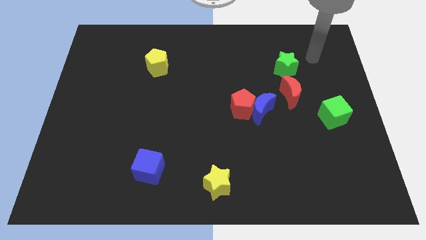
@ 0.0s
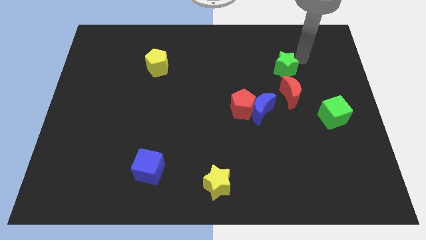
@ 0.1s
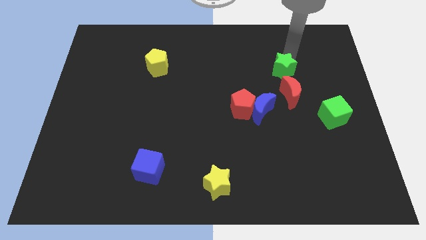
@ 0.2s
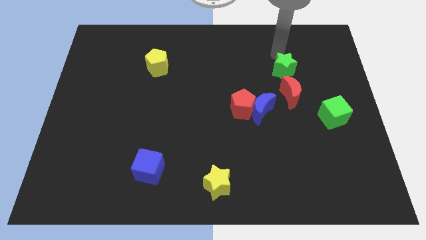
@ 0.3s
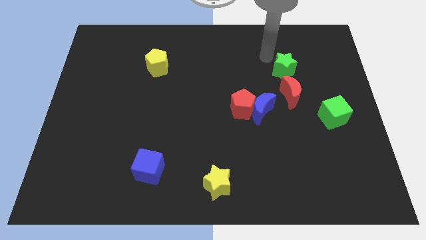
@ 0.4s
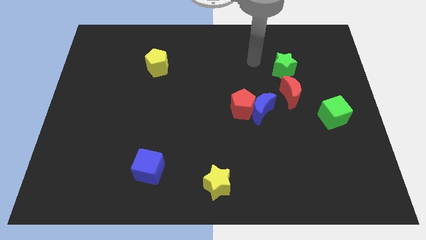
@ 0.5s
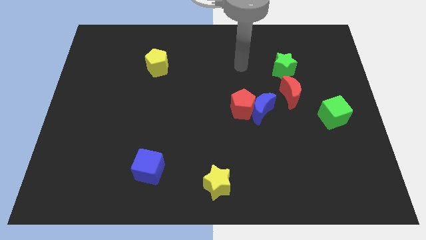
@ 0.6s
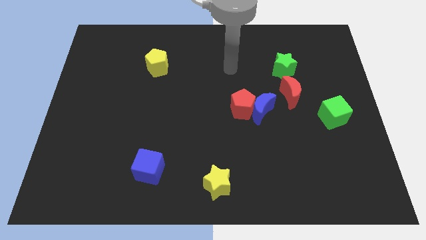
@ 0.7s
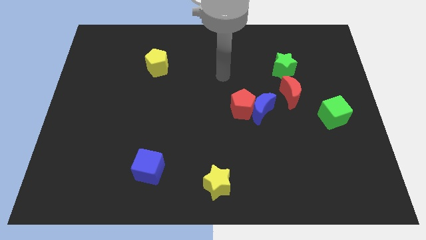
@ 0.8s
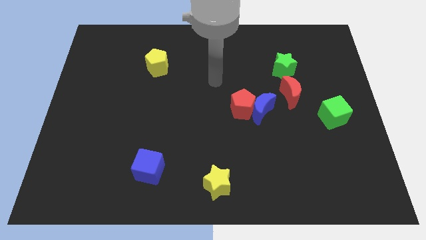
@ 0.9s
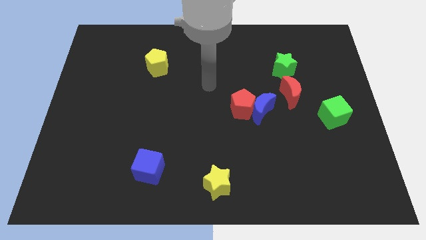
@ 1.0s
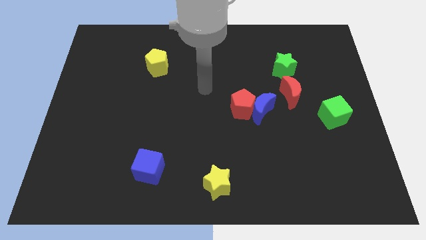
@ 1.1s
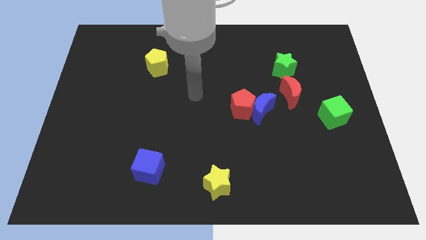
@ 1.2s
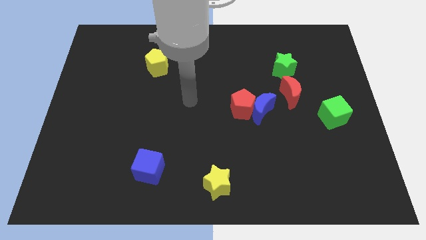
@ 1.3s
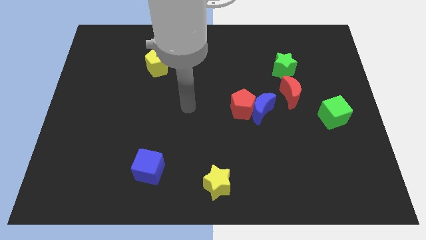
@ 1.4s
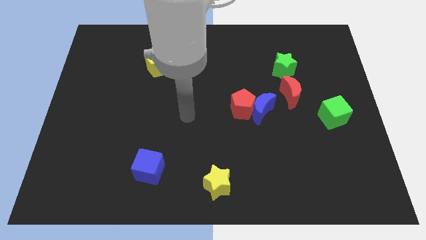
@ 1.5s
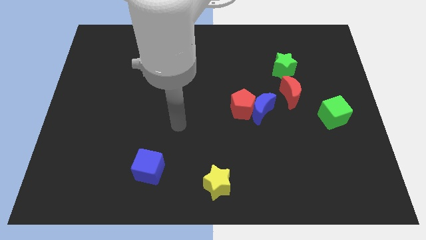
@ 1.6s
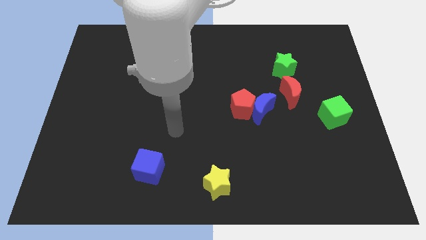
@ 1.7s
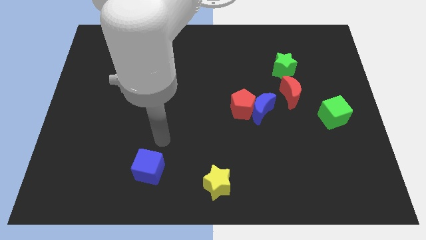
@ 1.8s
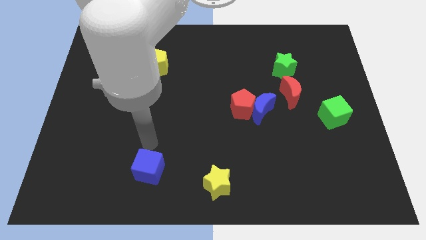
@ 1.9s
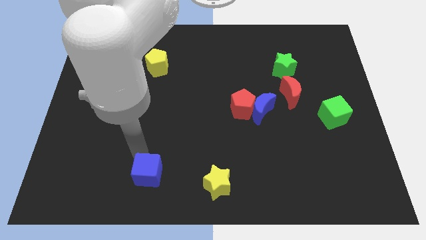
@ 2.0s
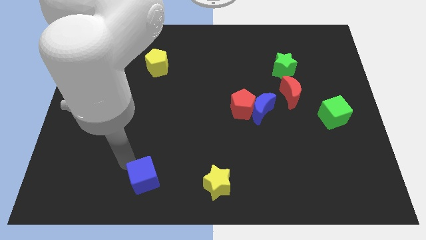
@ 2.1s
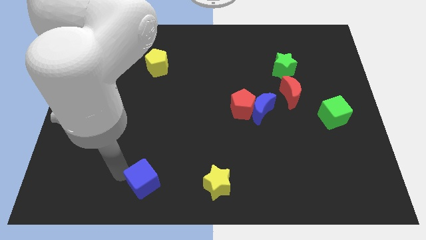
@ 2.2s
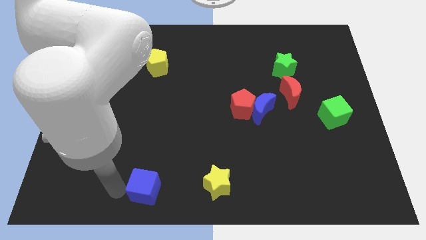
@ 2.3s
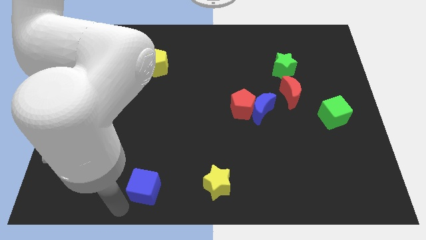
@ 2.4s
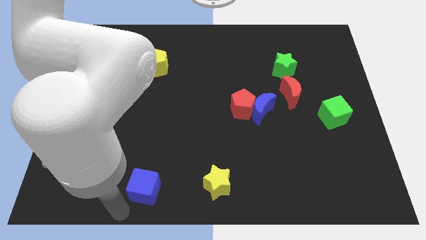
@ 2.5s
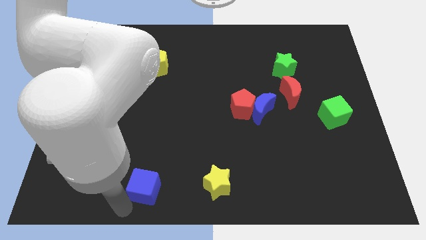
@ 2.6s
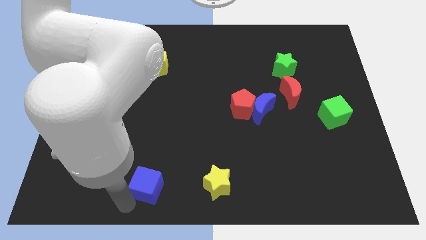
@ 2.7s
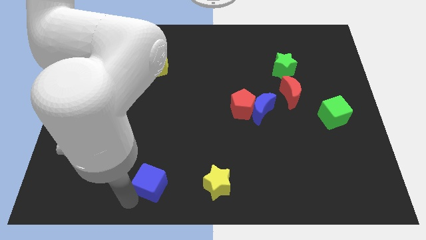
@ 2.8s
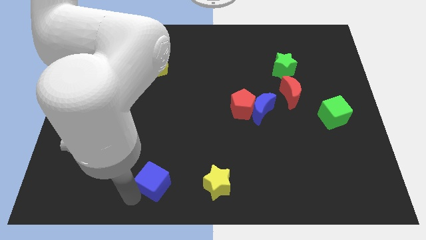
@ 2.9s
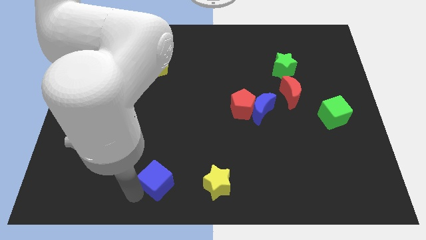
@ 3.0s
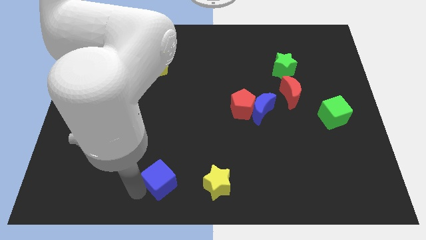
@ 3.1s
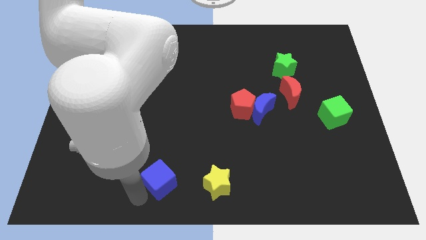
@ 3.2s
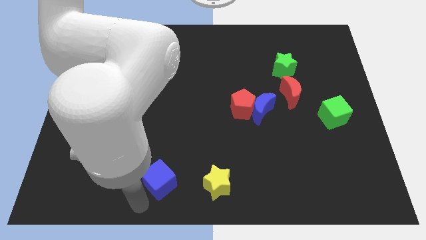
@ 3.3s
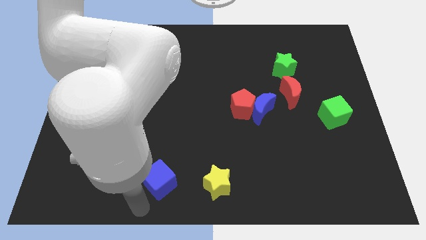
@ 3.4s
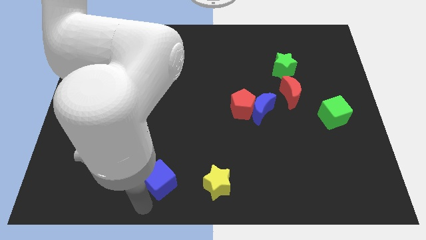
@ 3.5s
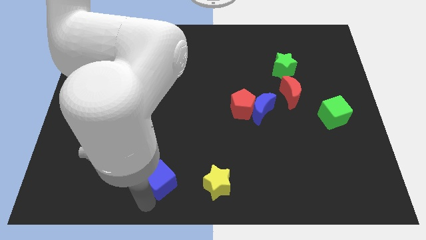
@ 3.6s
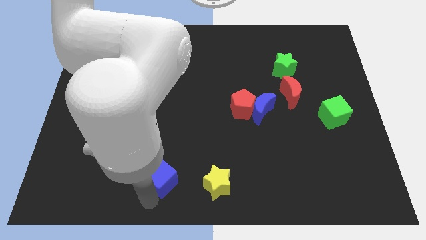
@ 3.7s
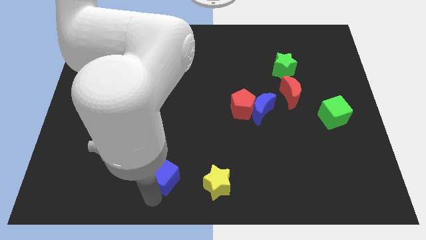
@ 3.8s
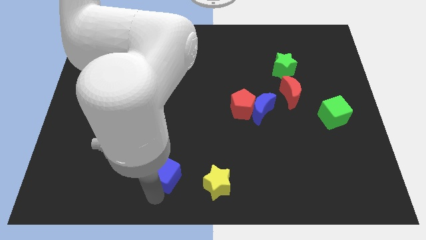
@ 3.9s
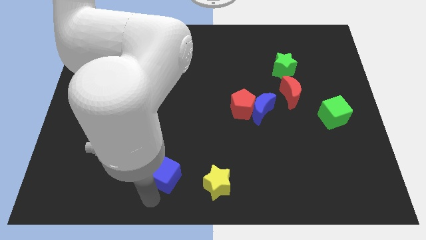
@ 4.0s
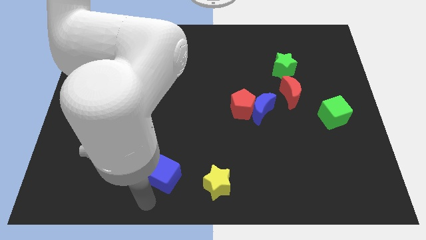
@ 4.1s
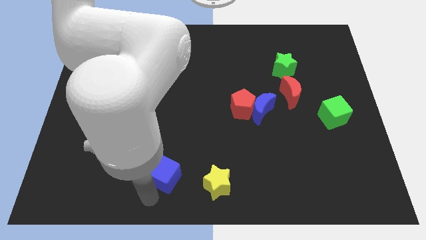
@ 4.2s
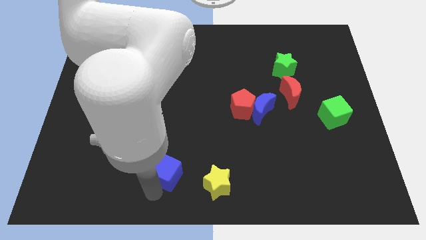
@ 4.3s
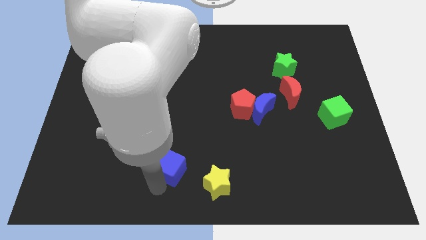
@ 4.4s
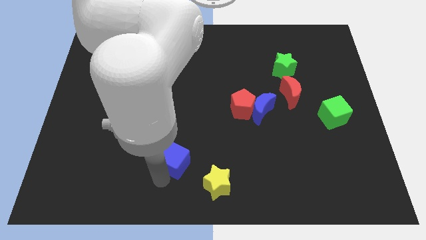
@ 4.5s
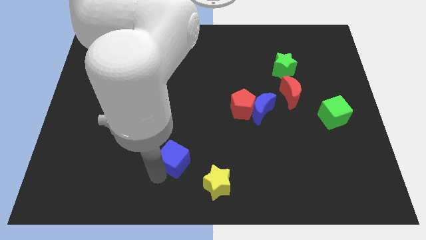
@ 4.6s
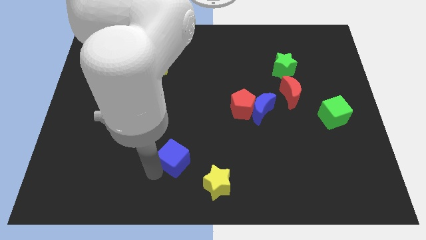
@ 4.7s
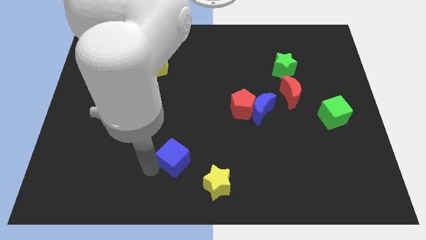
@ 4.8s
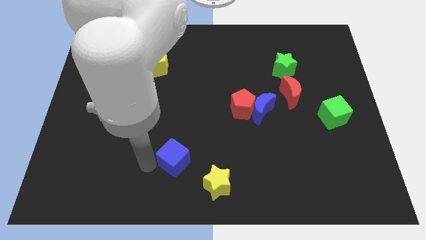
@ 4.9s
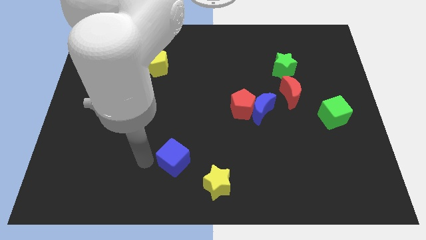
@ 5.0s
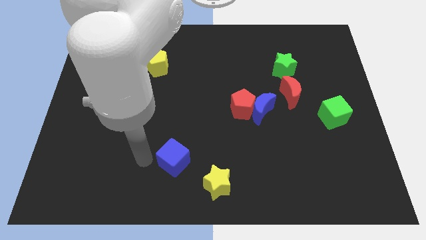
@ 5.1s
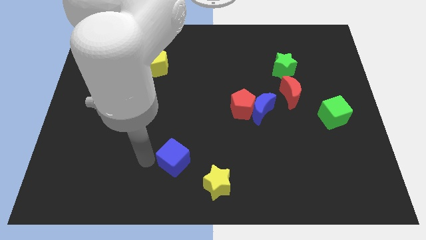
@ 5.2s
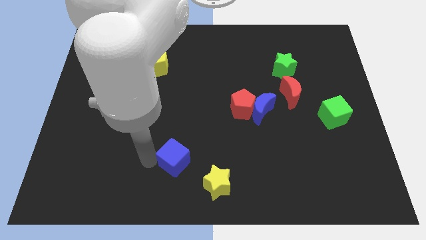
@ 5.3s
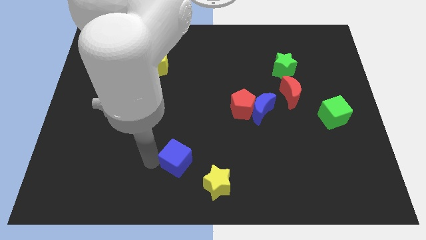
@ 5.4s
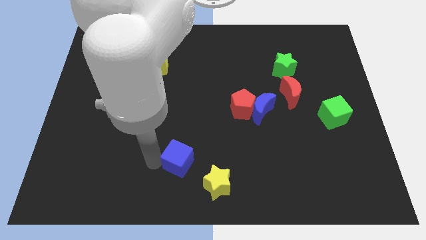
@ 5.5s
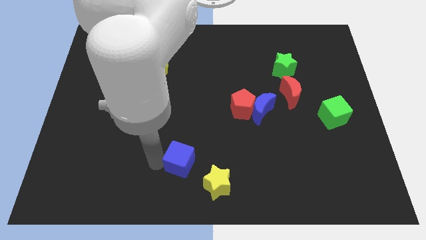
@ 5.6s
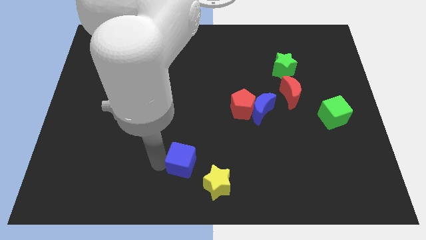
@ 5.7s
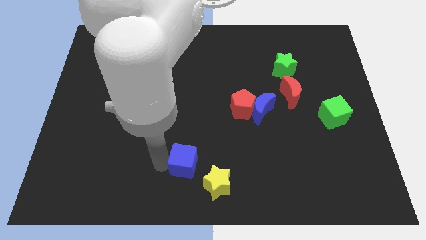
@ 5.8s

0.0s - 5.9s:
slide the blue cube a little bit to the right

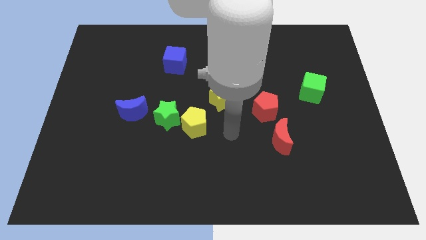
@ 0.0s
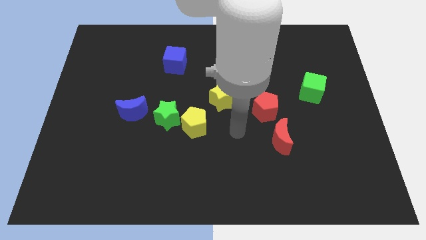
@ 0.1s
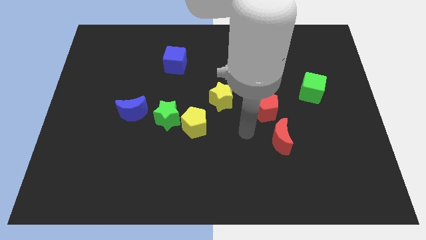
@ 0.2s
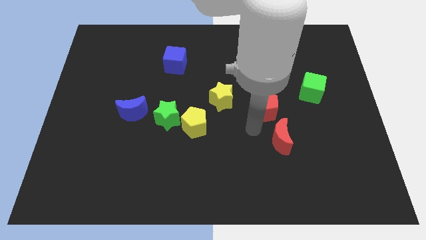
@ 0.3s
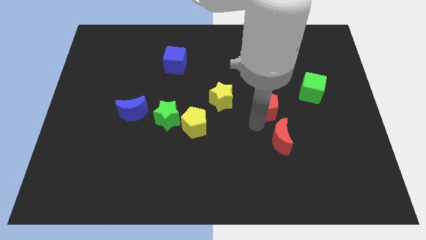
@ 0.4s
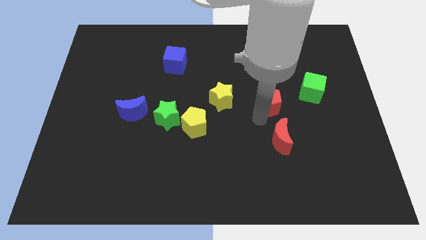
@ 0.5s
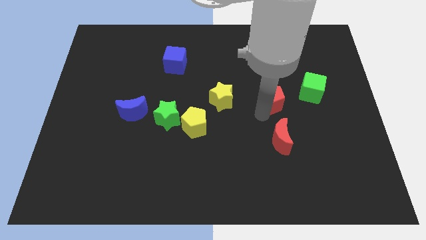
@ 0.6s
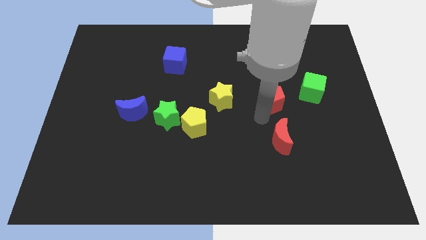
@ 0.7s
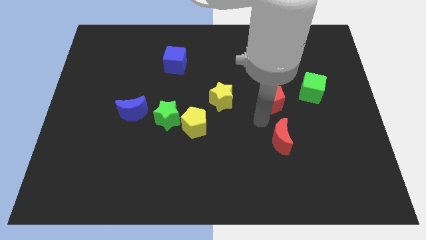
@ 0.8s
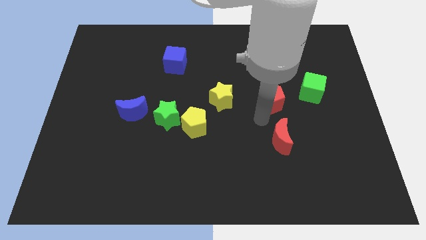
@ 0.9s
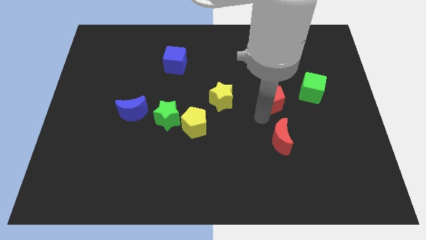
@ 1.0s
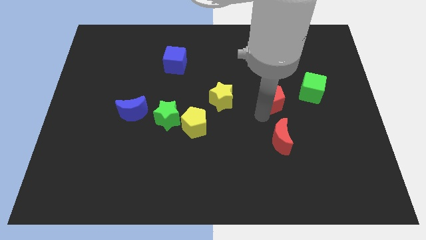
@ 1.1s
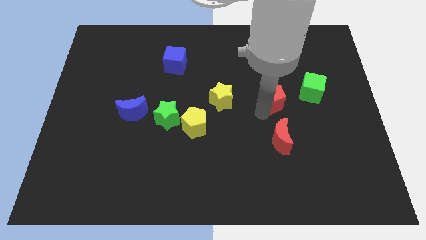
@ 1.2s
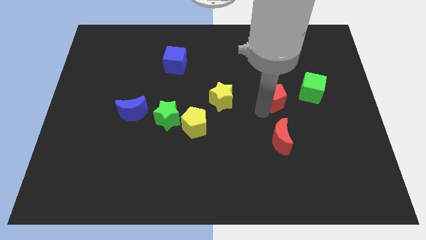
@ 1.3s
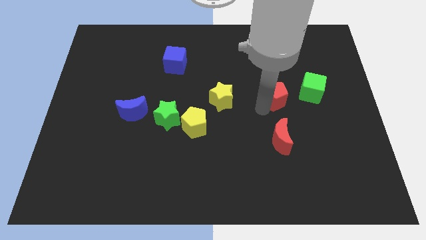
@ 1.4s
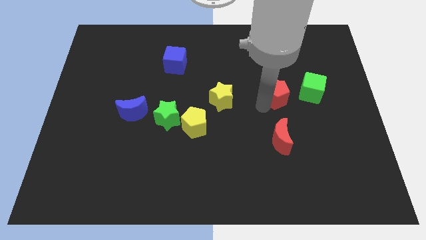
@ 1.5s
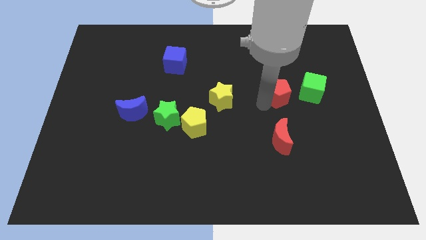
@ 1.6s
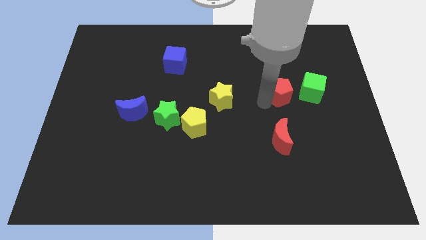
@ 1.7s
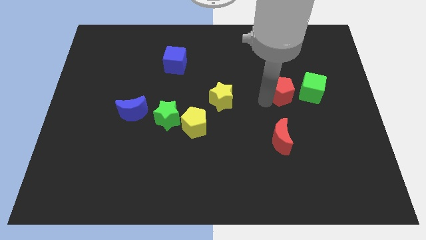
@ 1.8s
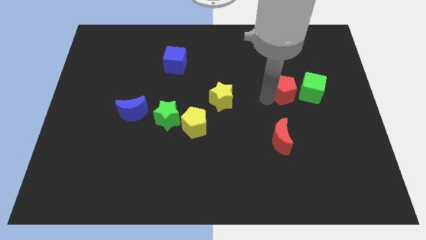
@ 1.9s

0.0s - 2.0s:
slide the red pentagon up and to the right diagonally slightly
